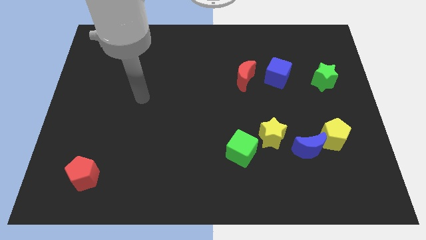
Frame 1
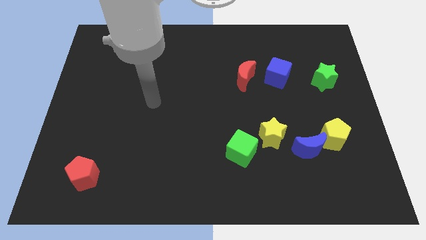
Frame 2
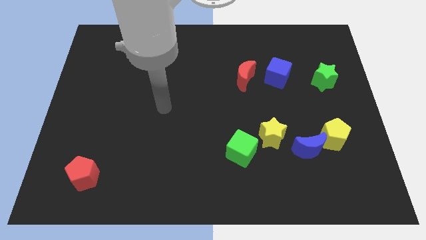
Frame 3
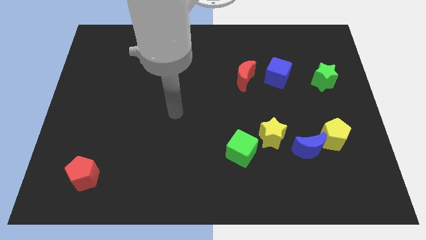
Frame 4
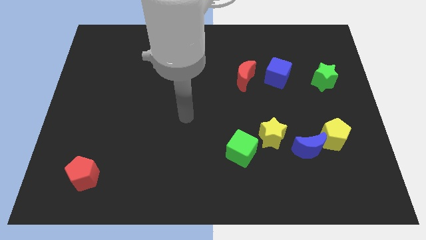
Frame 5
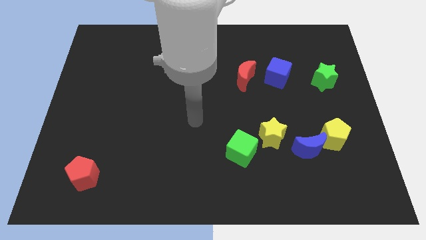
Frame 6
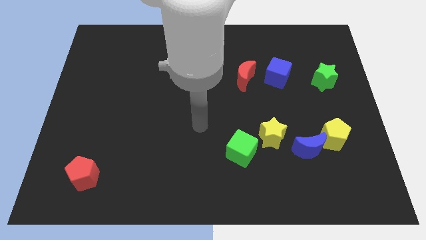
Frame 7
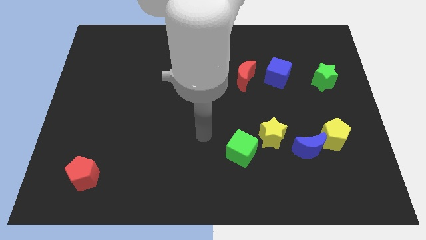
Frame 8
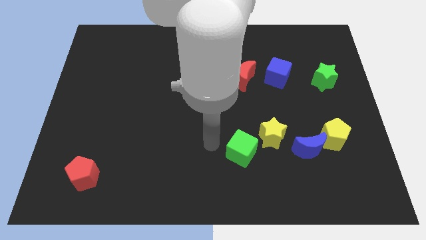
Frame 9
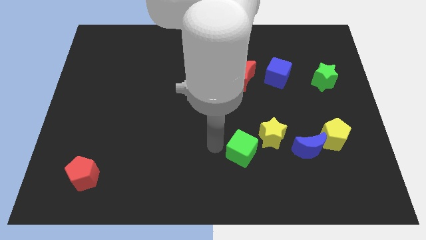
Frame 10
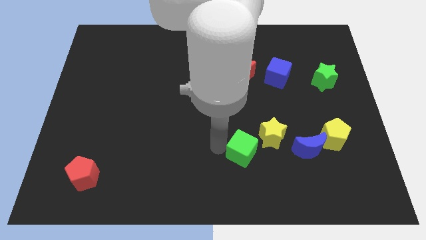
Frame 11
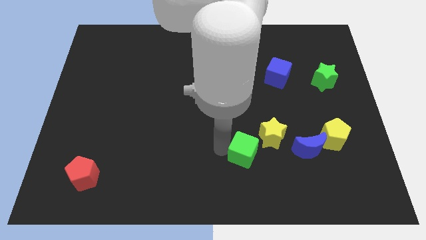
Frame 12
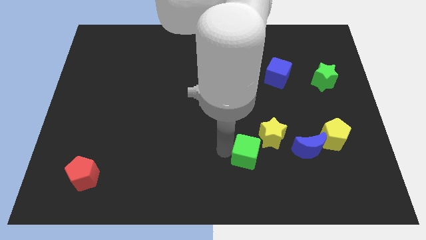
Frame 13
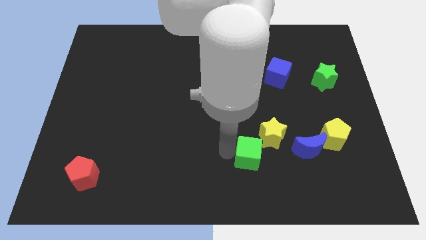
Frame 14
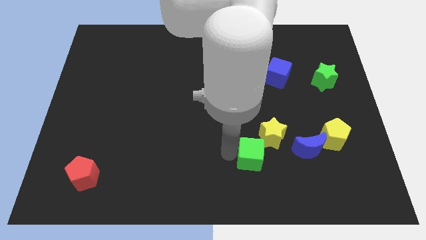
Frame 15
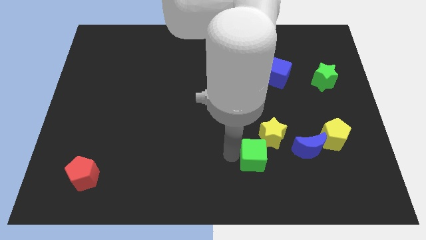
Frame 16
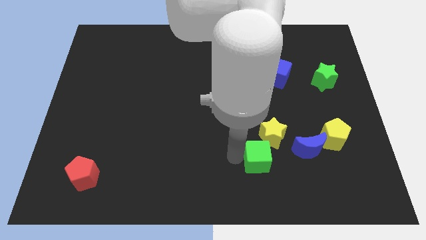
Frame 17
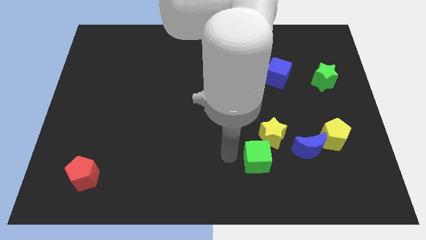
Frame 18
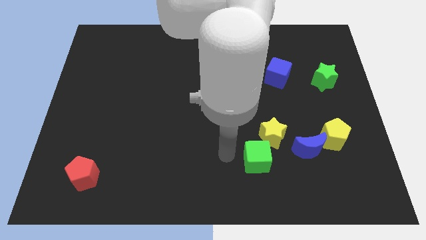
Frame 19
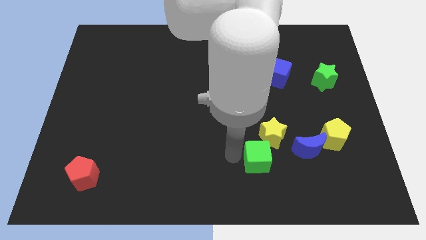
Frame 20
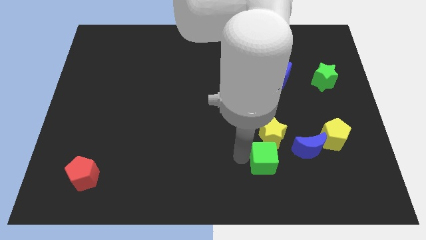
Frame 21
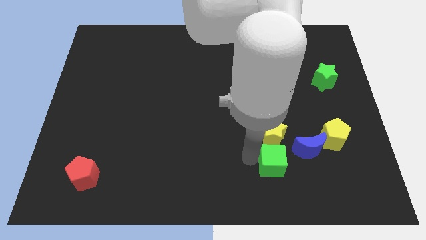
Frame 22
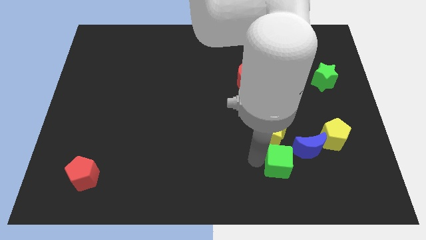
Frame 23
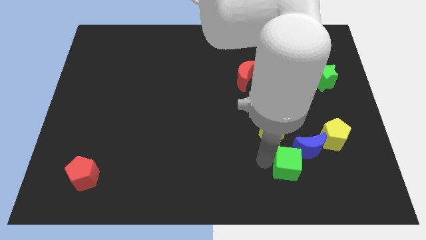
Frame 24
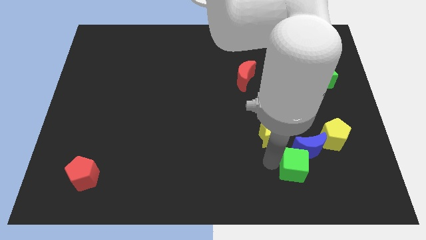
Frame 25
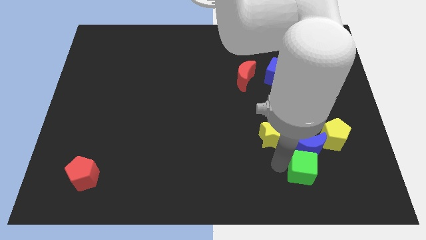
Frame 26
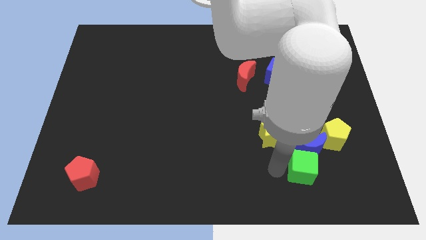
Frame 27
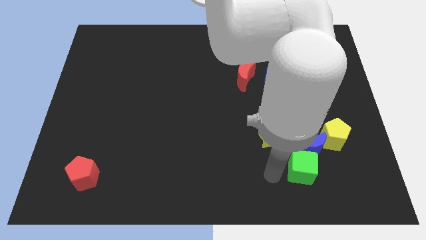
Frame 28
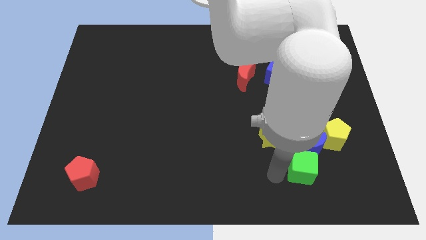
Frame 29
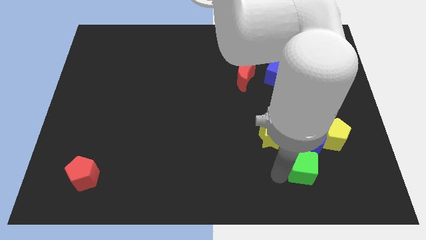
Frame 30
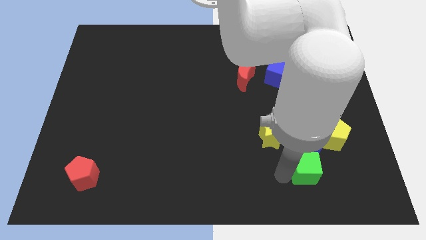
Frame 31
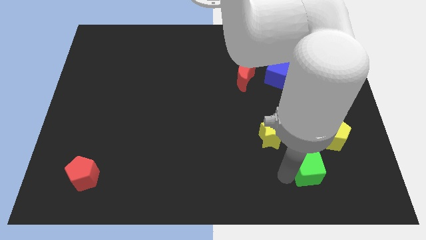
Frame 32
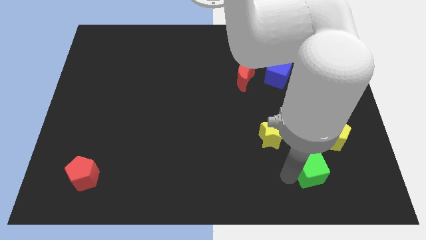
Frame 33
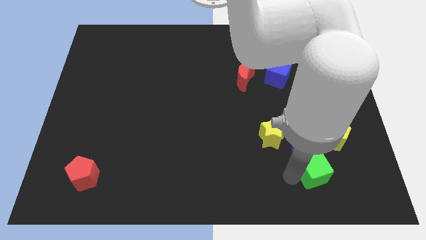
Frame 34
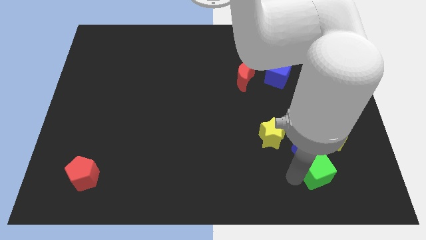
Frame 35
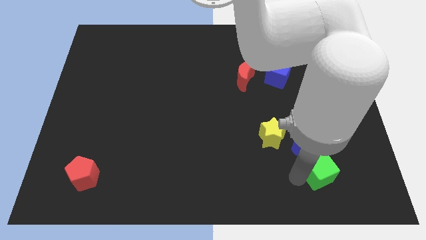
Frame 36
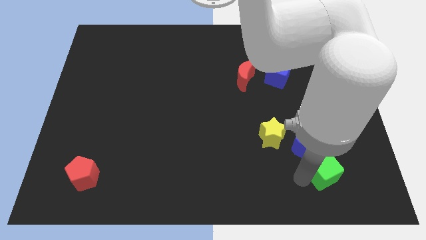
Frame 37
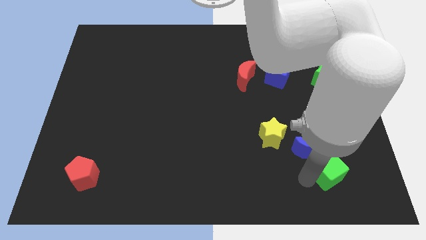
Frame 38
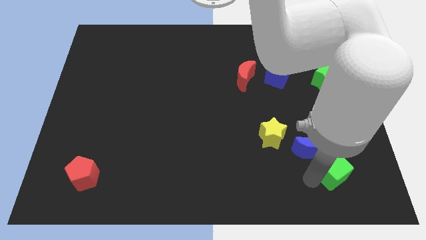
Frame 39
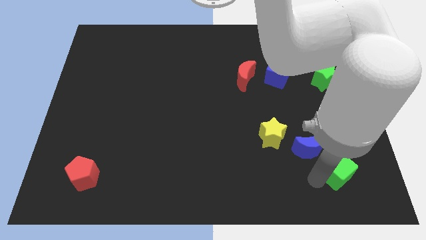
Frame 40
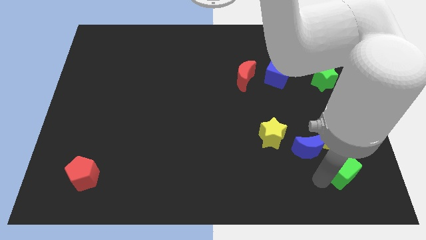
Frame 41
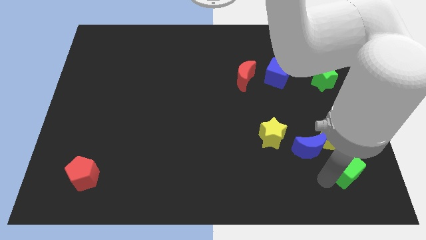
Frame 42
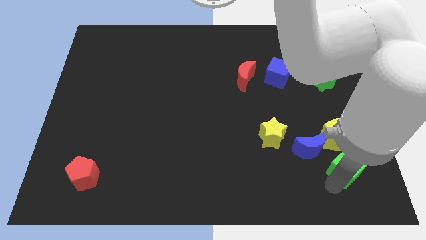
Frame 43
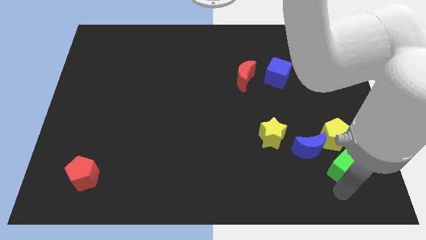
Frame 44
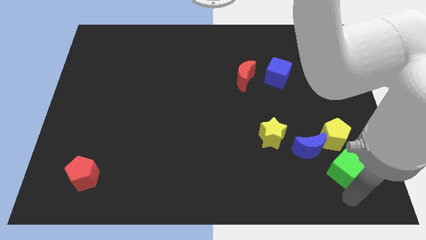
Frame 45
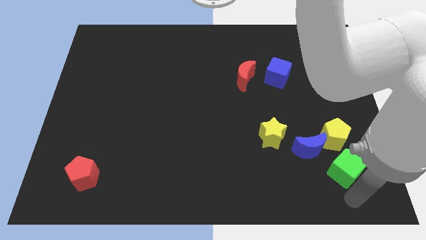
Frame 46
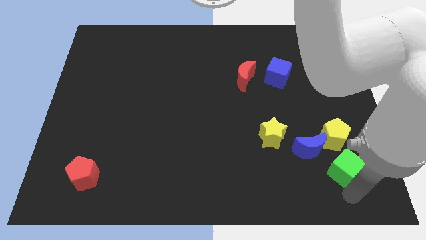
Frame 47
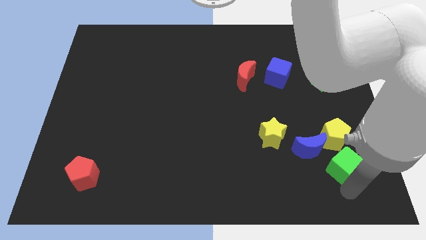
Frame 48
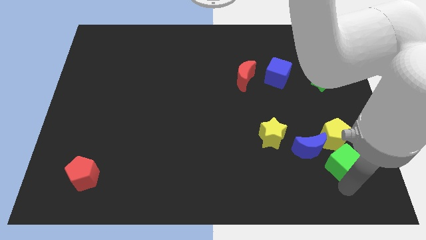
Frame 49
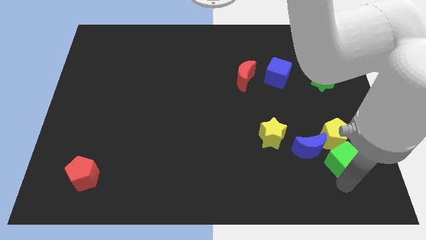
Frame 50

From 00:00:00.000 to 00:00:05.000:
push the green cube towards the yellow pentagon

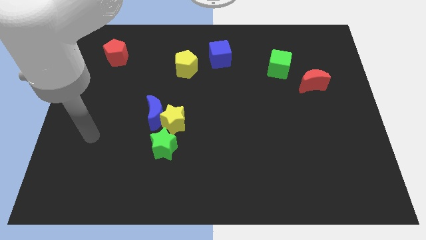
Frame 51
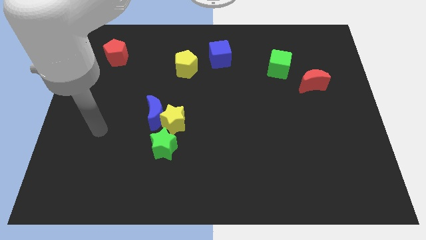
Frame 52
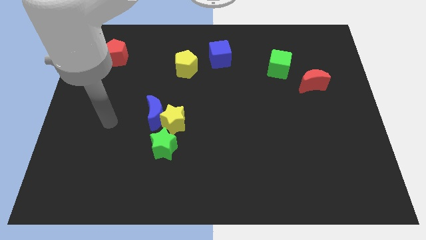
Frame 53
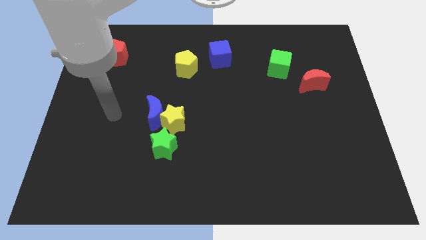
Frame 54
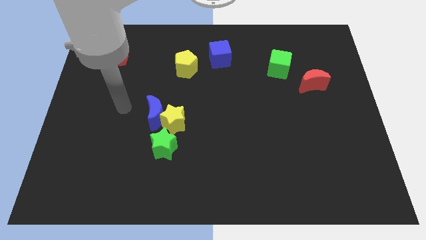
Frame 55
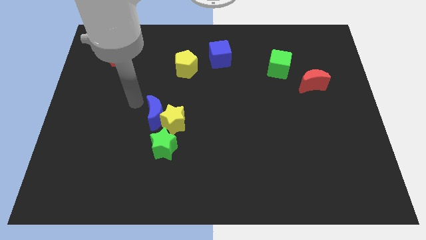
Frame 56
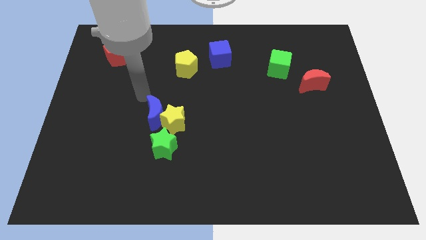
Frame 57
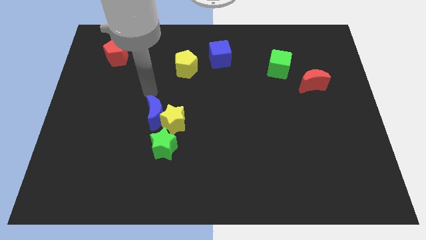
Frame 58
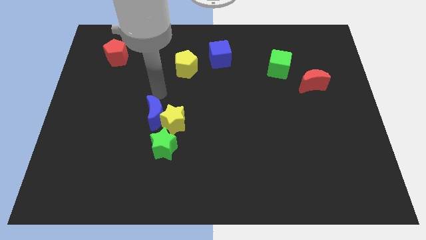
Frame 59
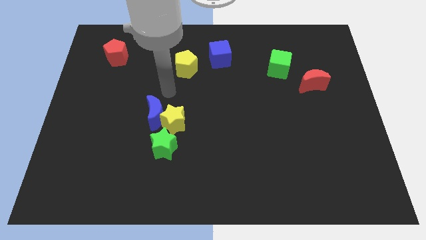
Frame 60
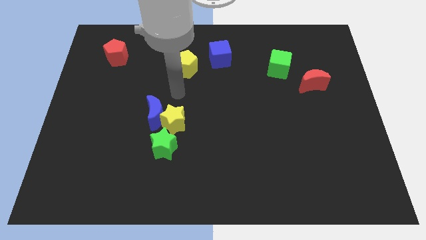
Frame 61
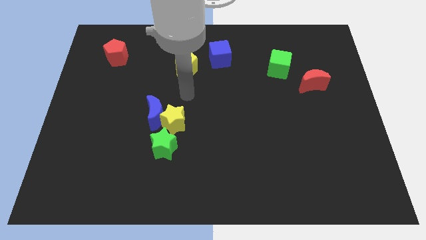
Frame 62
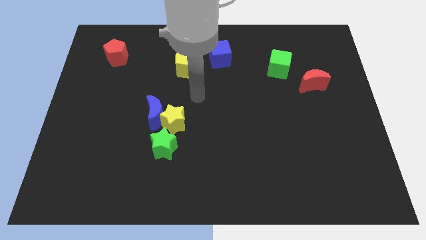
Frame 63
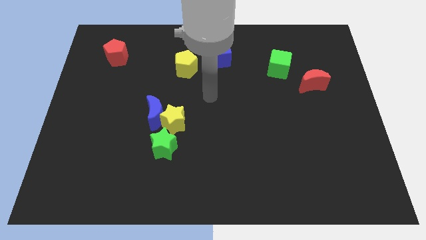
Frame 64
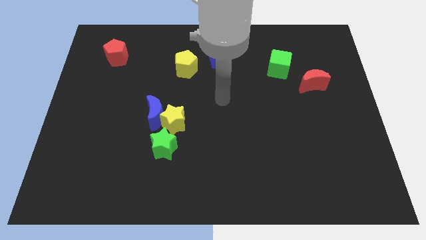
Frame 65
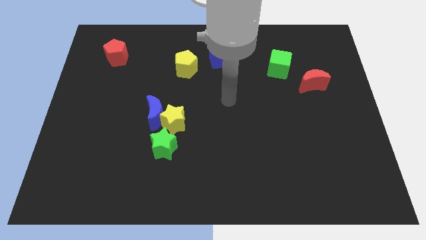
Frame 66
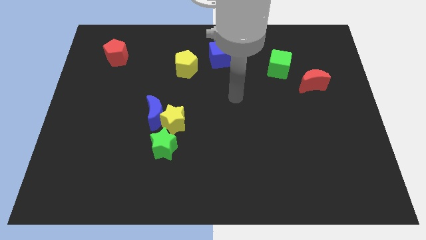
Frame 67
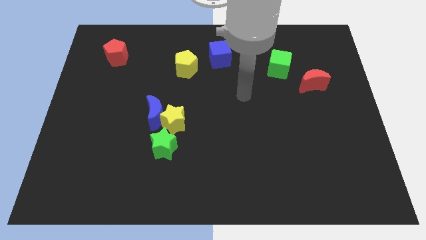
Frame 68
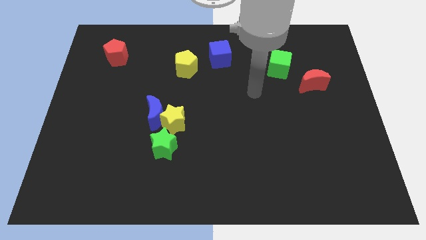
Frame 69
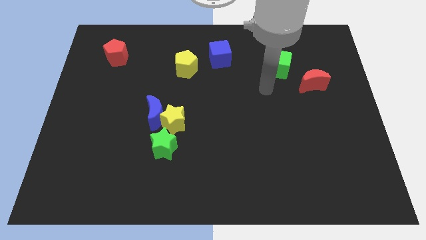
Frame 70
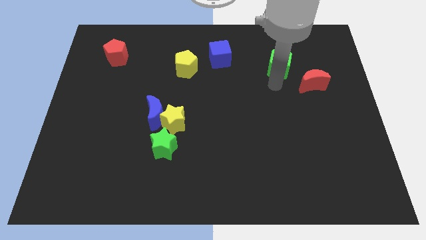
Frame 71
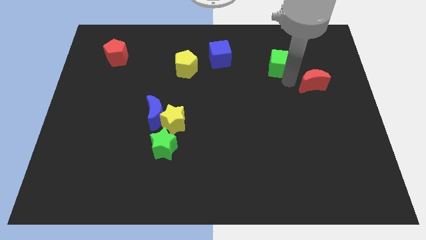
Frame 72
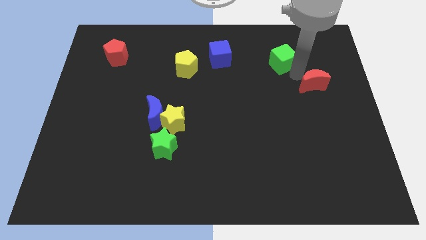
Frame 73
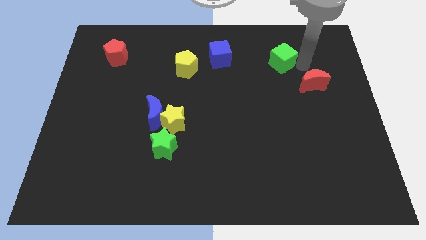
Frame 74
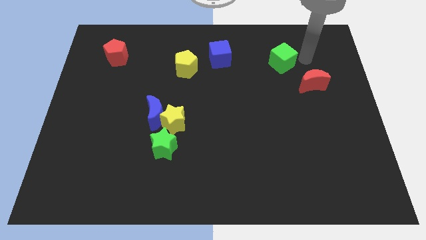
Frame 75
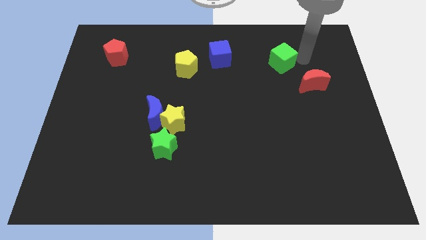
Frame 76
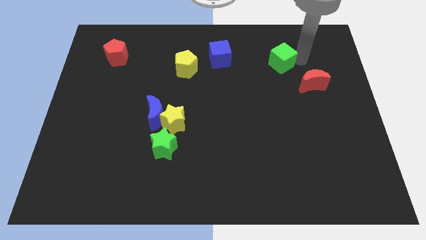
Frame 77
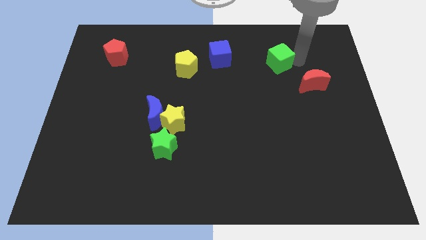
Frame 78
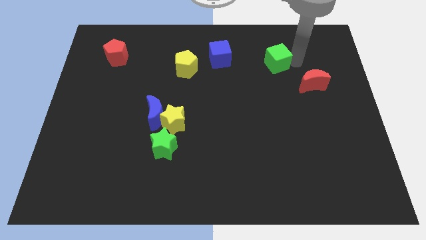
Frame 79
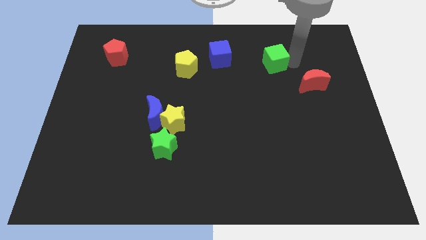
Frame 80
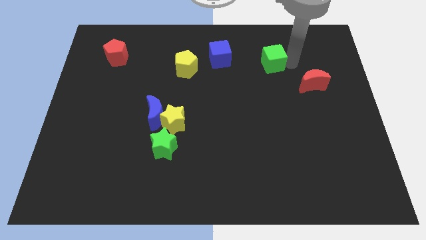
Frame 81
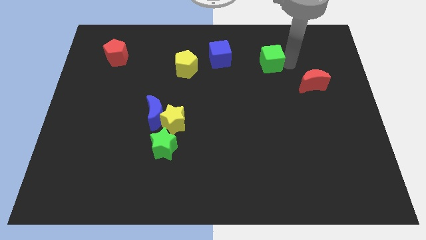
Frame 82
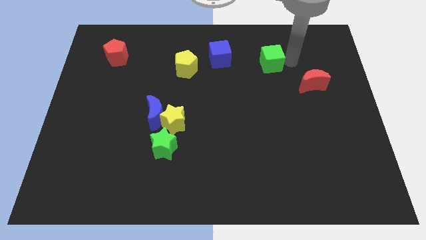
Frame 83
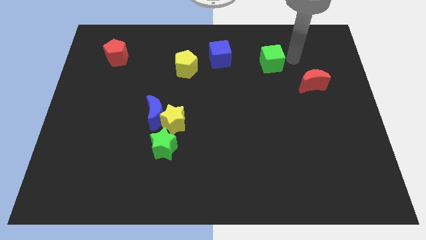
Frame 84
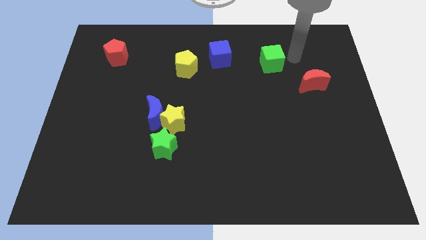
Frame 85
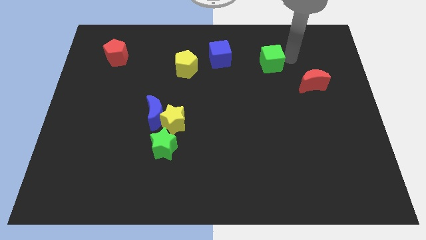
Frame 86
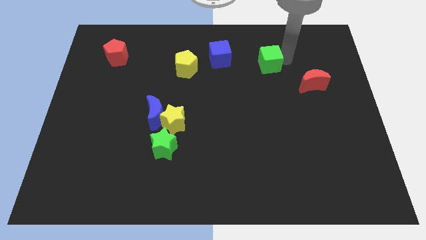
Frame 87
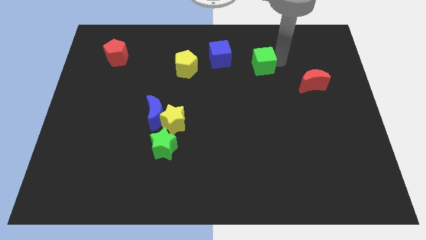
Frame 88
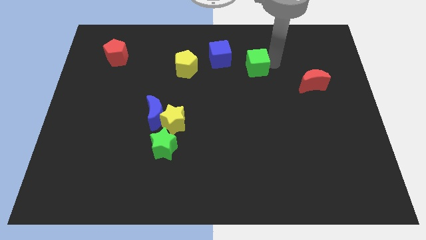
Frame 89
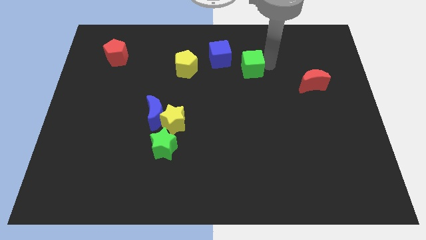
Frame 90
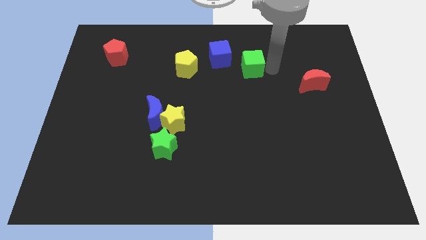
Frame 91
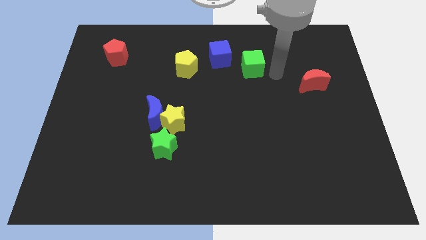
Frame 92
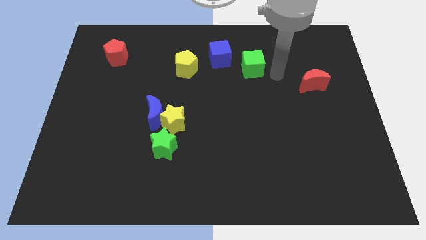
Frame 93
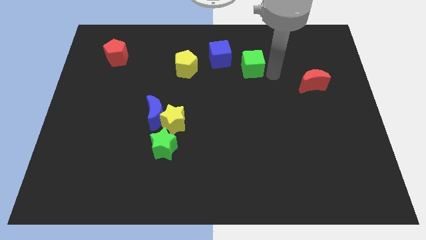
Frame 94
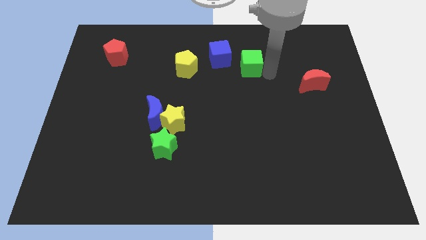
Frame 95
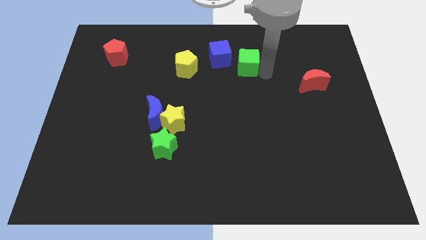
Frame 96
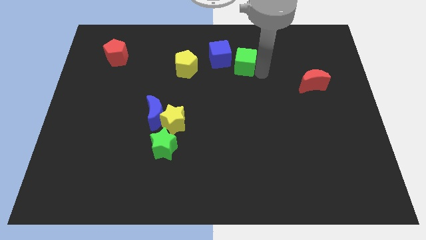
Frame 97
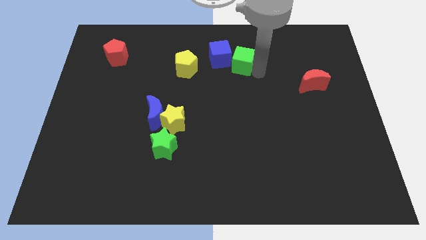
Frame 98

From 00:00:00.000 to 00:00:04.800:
push the green cube to the blue cube
